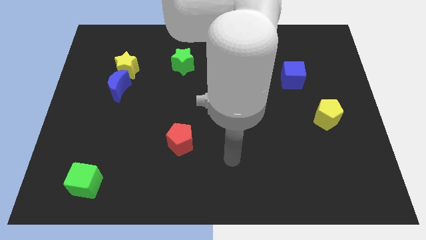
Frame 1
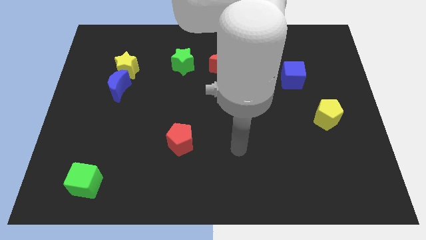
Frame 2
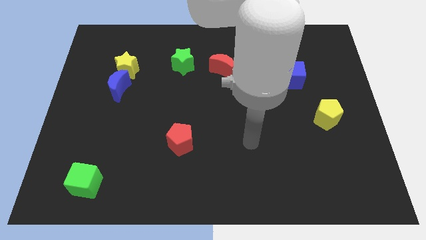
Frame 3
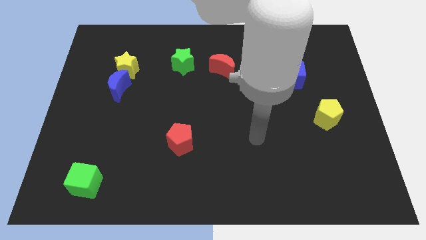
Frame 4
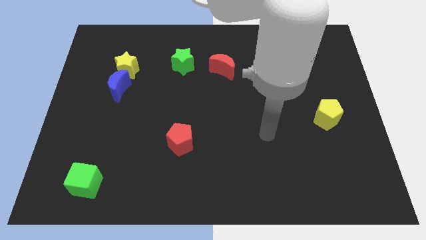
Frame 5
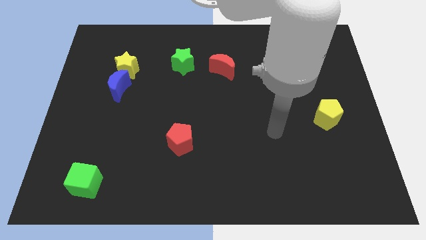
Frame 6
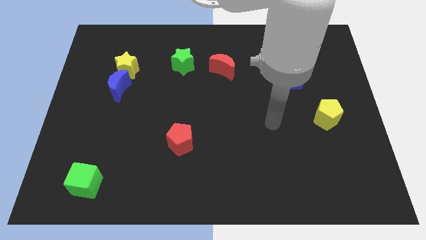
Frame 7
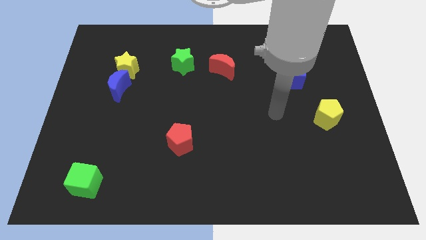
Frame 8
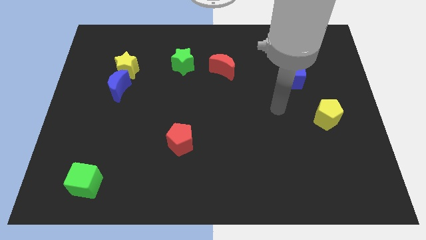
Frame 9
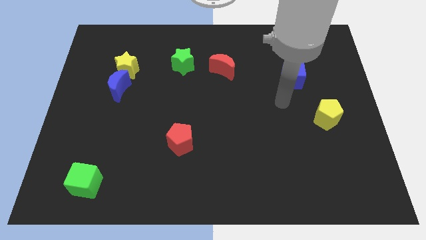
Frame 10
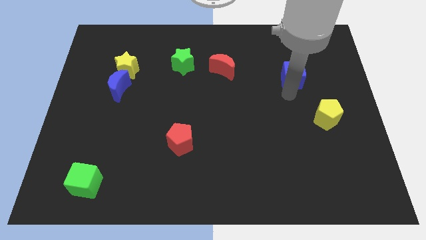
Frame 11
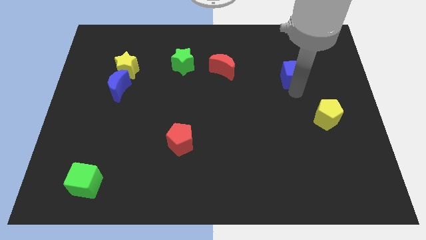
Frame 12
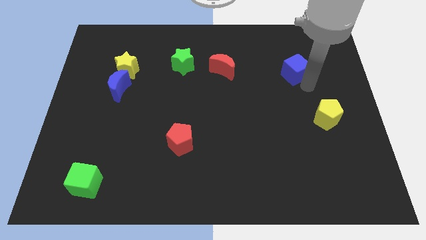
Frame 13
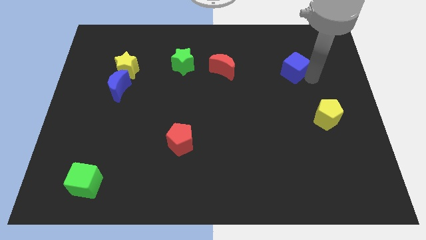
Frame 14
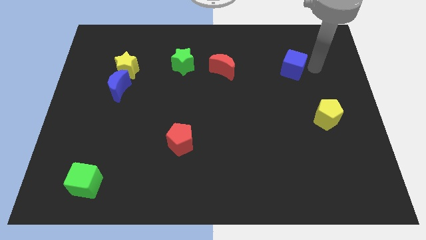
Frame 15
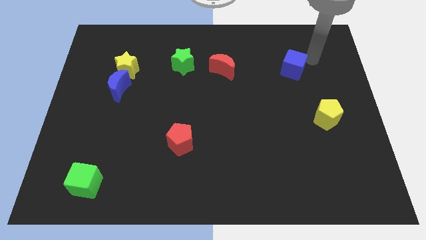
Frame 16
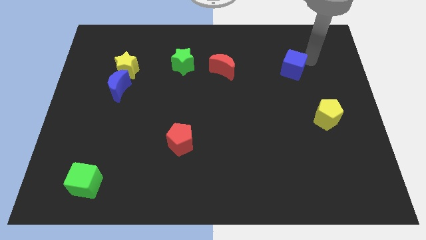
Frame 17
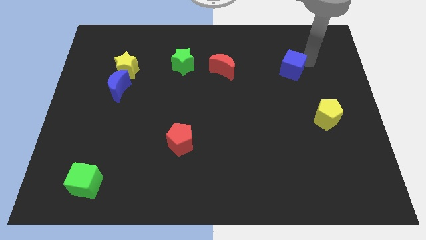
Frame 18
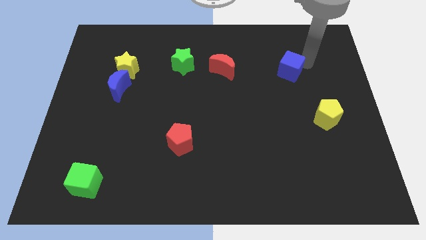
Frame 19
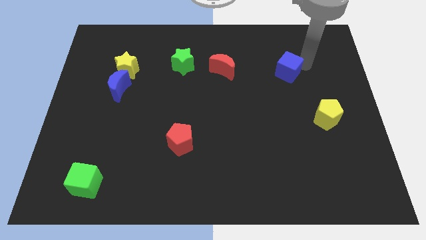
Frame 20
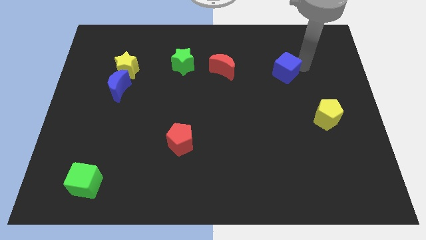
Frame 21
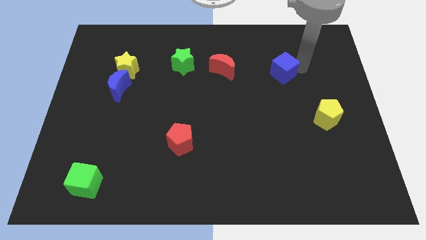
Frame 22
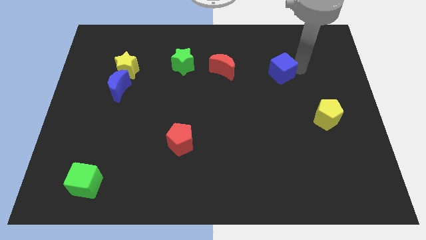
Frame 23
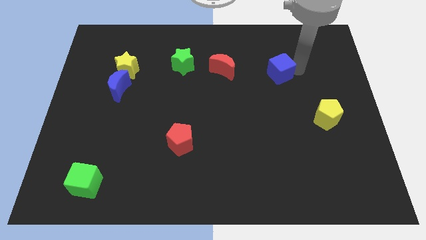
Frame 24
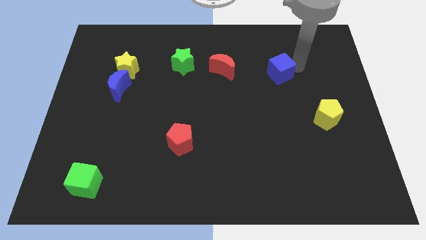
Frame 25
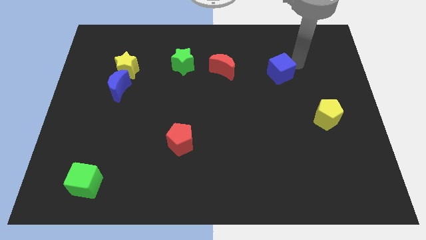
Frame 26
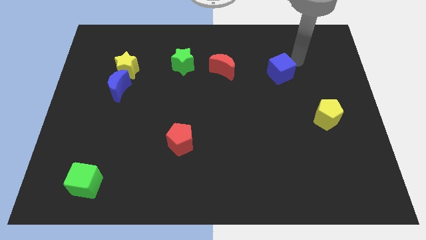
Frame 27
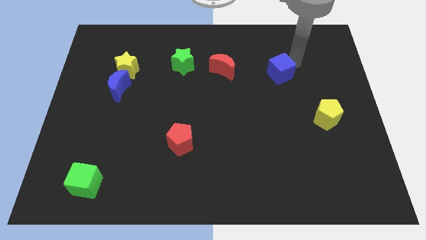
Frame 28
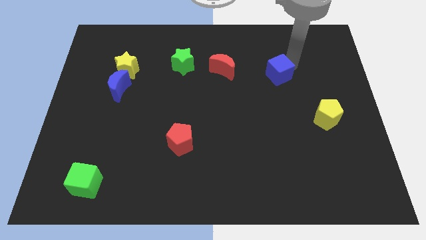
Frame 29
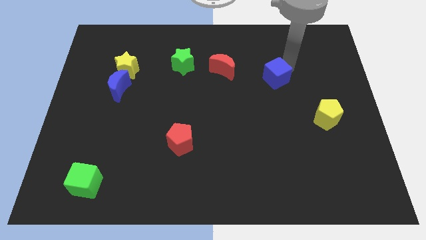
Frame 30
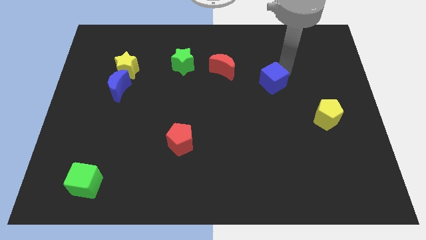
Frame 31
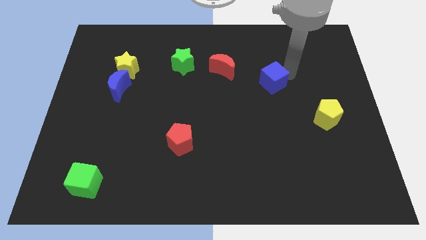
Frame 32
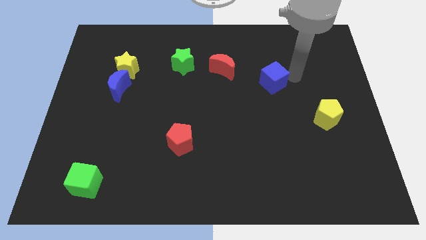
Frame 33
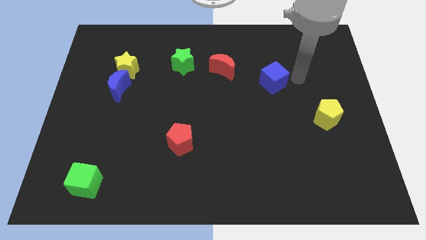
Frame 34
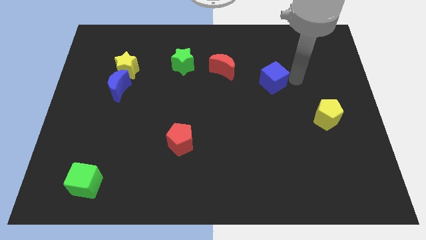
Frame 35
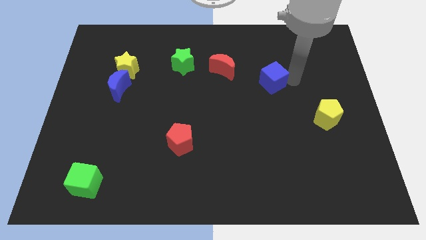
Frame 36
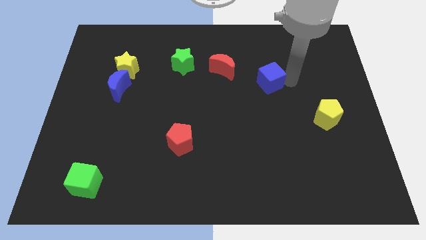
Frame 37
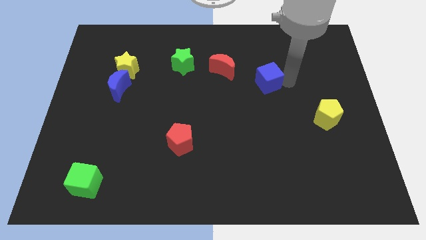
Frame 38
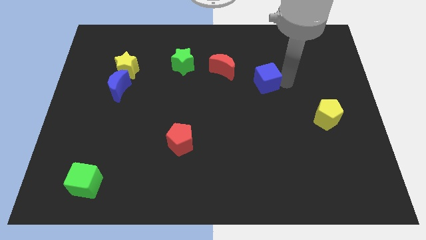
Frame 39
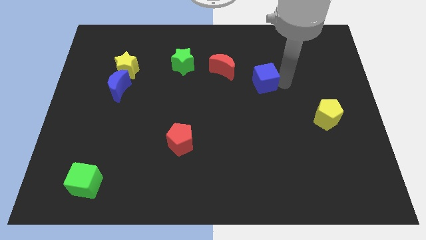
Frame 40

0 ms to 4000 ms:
slightly slide the blue cube to the left

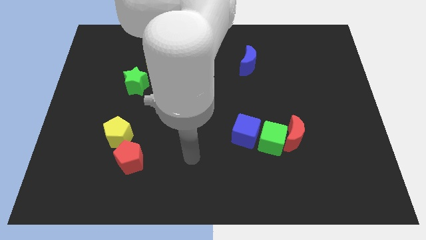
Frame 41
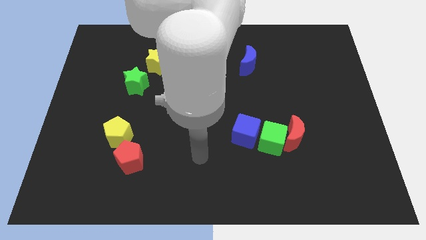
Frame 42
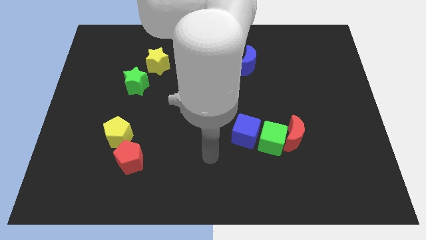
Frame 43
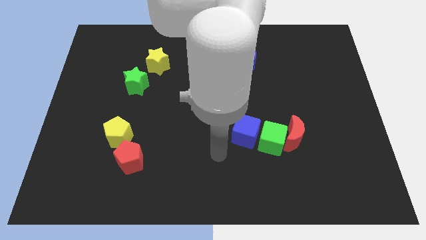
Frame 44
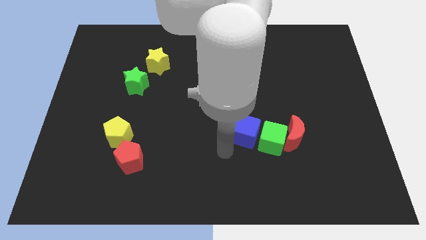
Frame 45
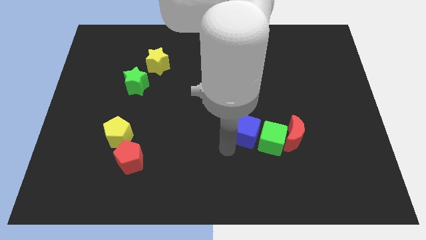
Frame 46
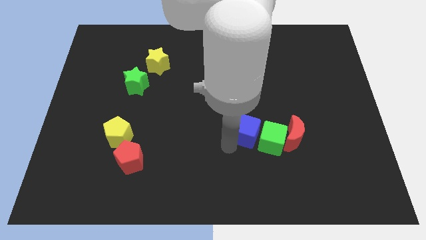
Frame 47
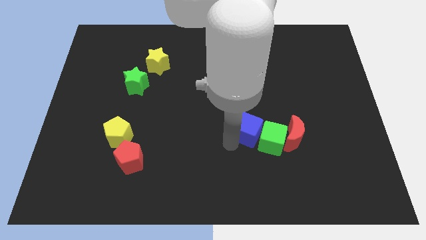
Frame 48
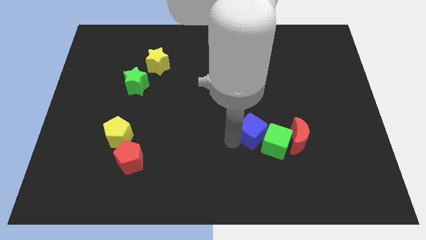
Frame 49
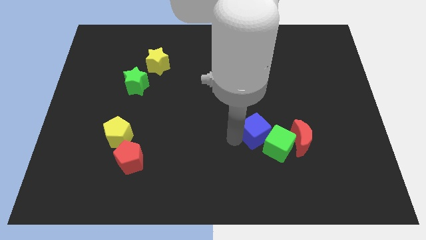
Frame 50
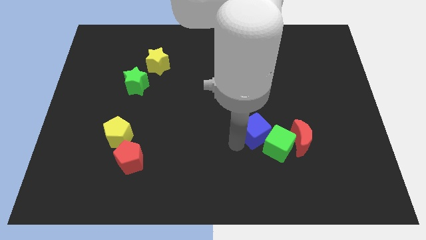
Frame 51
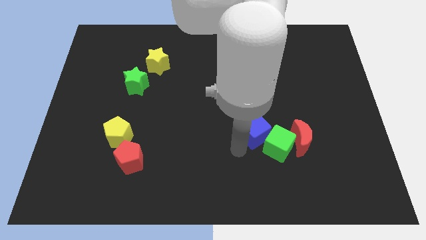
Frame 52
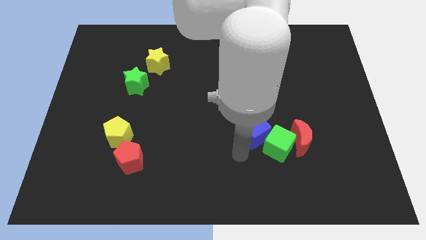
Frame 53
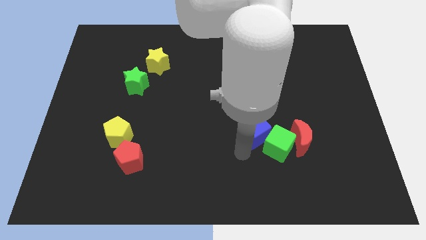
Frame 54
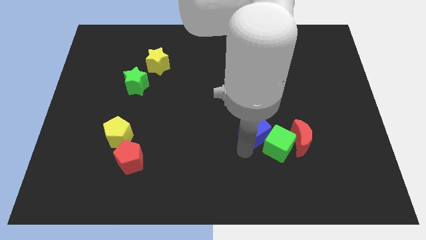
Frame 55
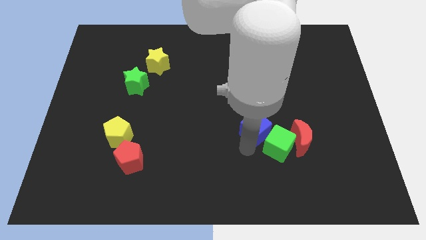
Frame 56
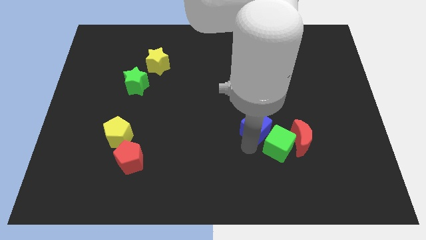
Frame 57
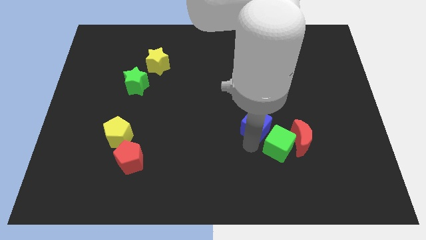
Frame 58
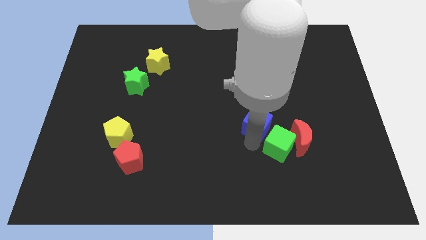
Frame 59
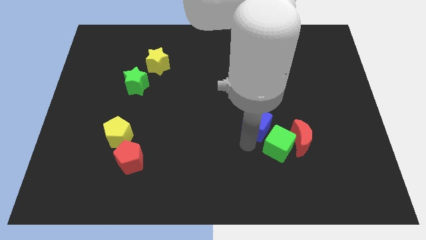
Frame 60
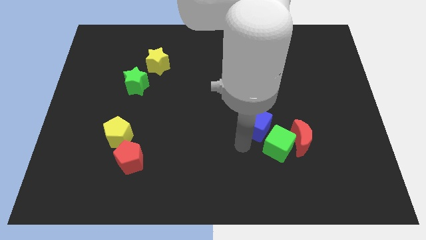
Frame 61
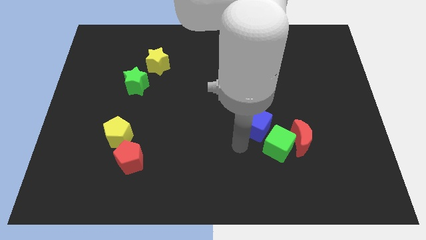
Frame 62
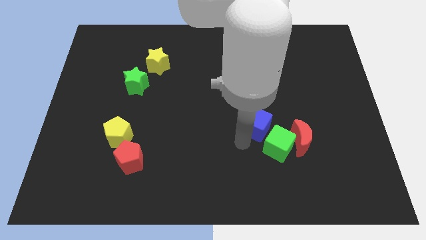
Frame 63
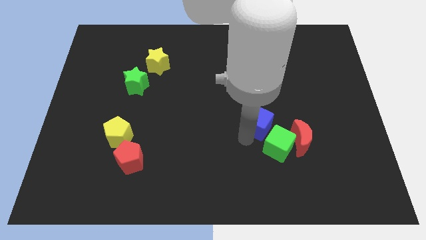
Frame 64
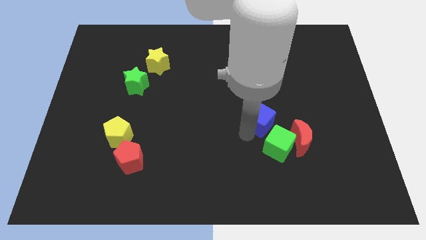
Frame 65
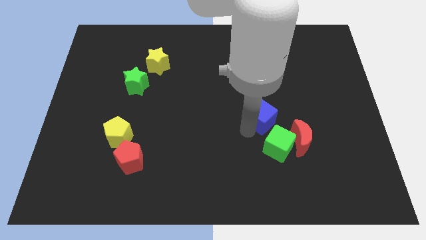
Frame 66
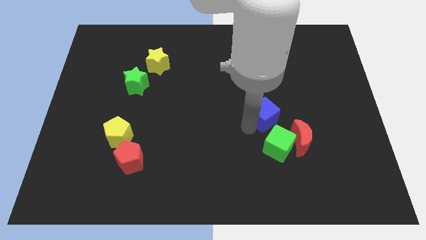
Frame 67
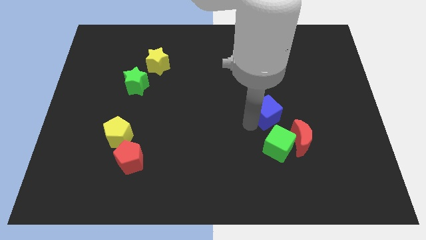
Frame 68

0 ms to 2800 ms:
slightly push the blue cube up and to the right

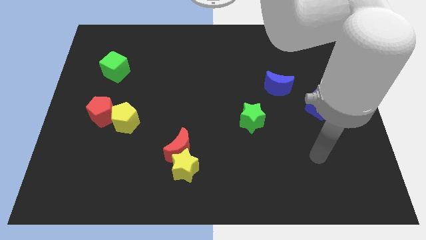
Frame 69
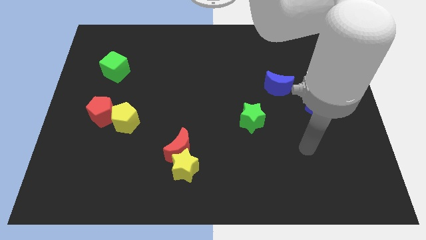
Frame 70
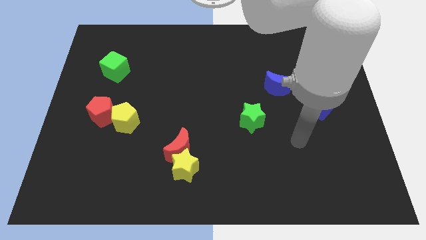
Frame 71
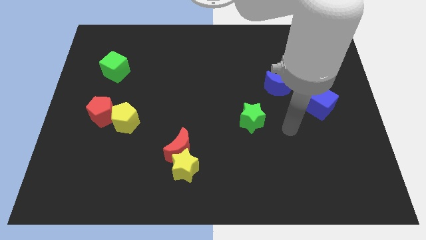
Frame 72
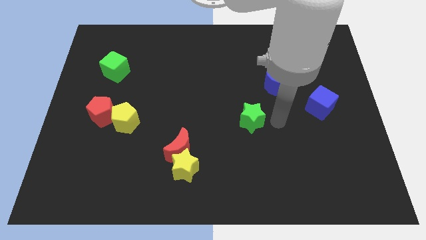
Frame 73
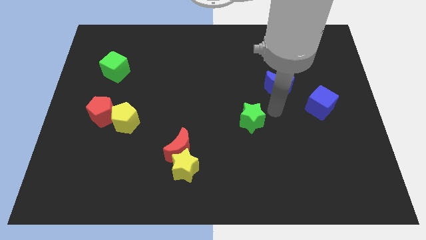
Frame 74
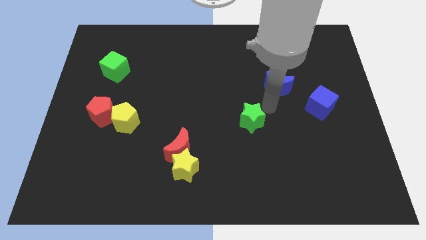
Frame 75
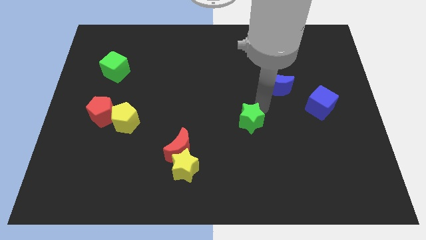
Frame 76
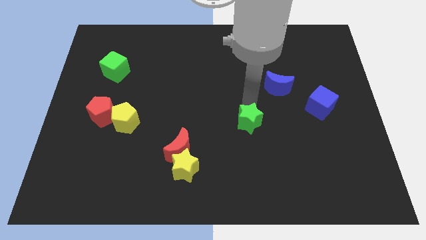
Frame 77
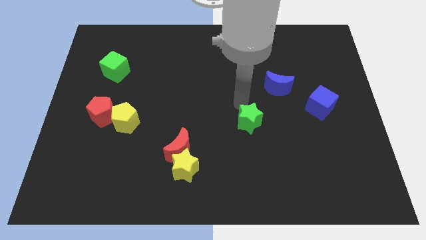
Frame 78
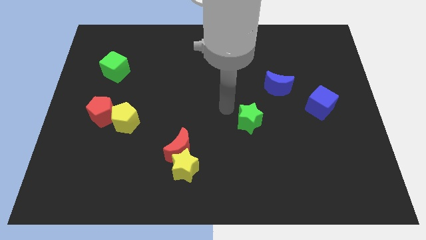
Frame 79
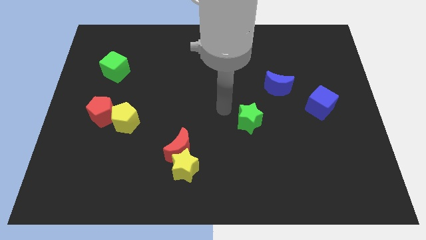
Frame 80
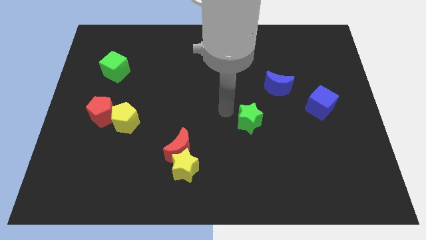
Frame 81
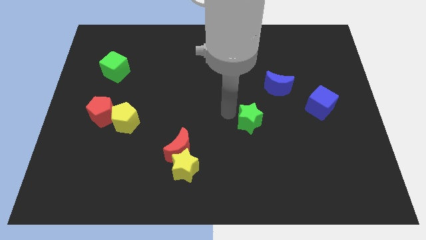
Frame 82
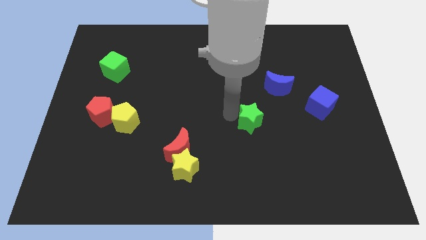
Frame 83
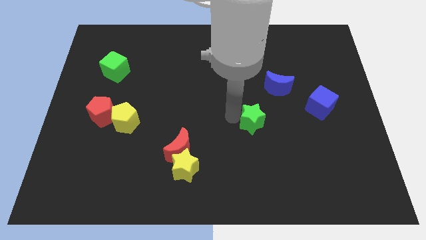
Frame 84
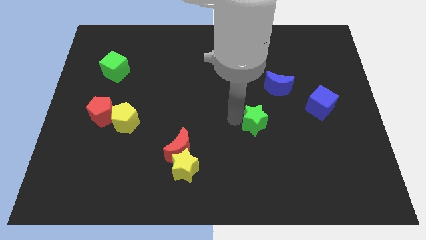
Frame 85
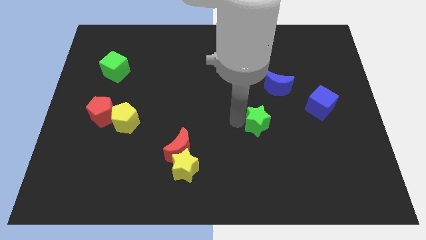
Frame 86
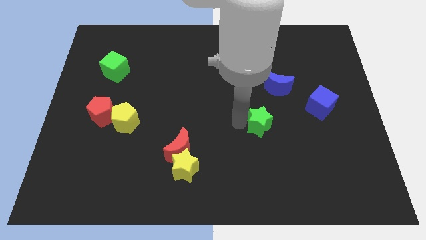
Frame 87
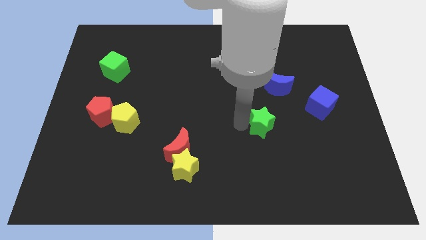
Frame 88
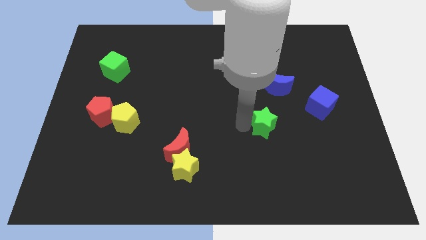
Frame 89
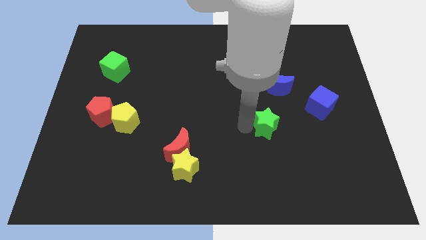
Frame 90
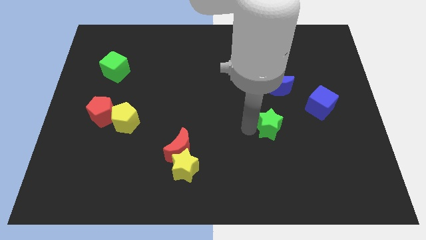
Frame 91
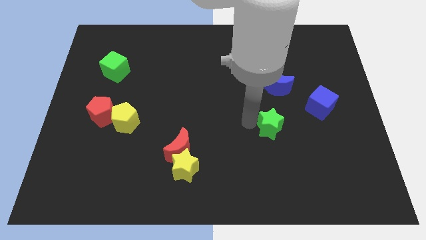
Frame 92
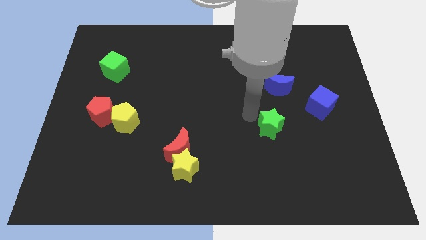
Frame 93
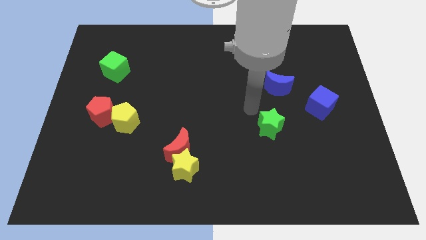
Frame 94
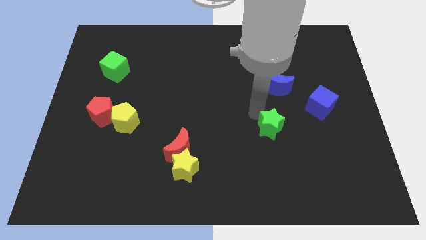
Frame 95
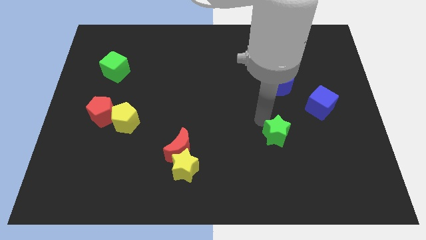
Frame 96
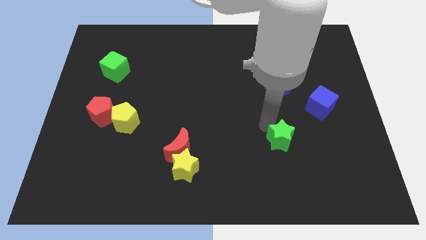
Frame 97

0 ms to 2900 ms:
slightly slide the green star down and then right
